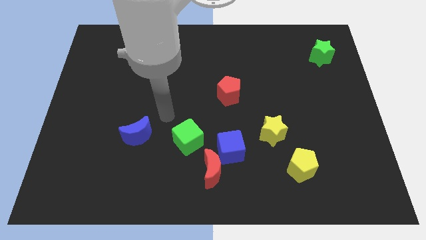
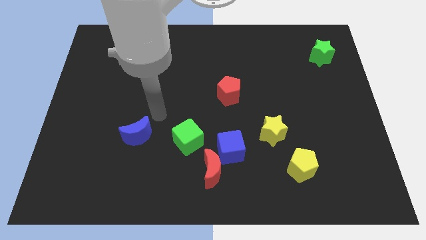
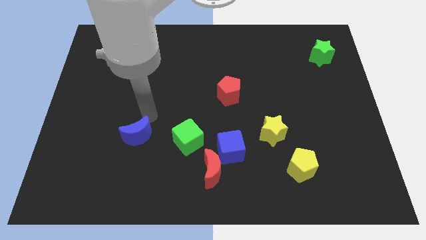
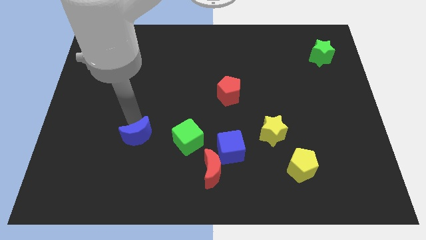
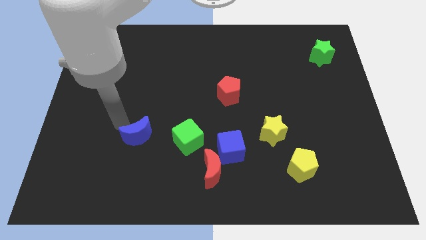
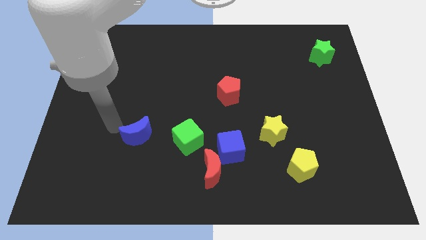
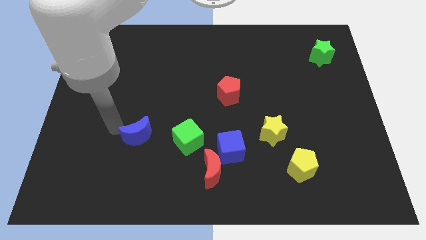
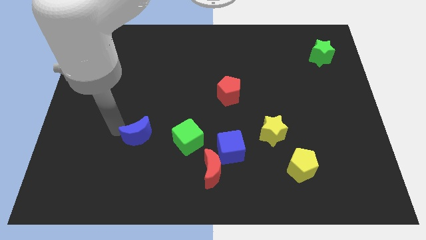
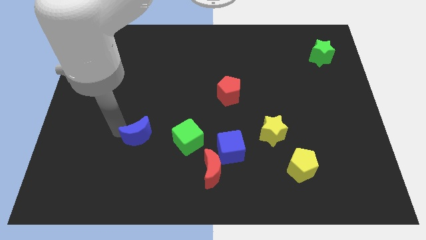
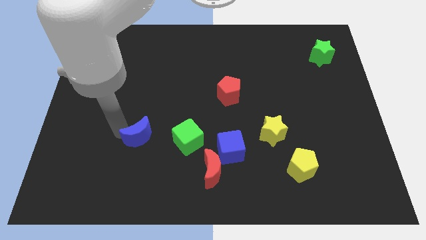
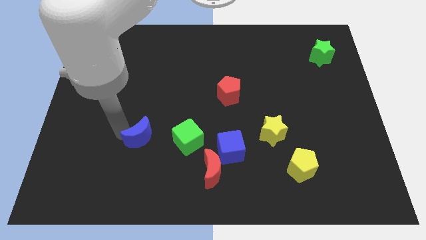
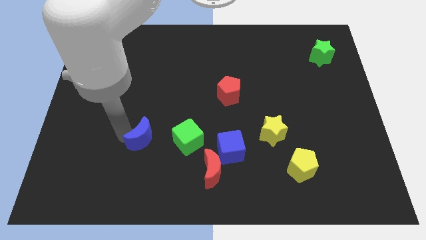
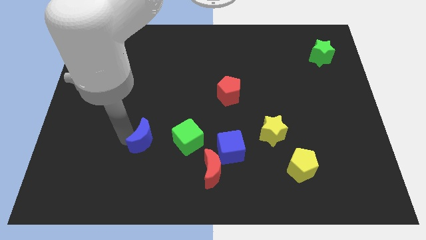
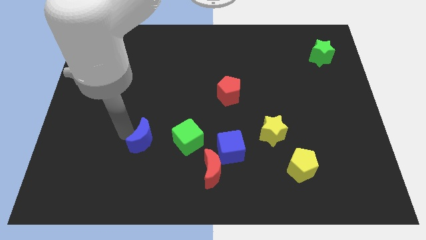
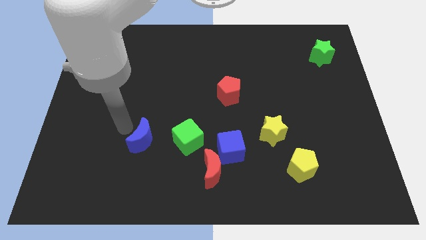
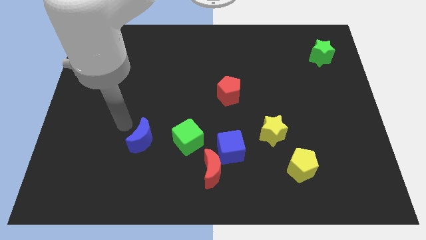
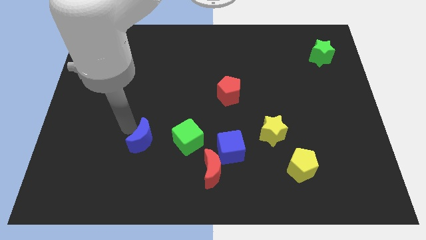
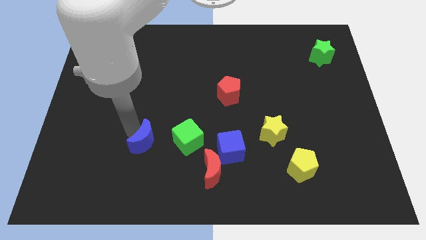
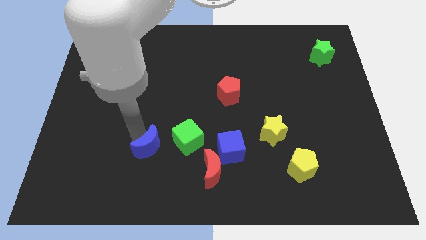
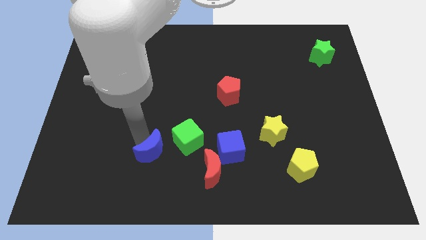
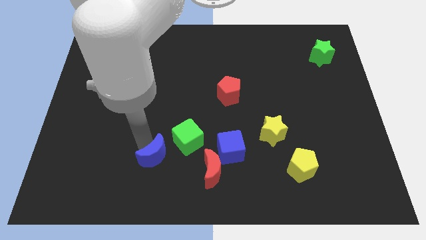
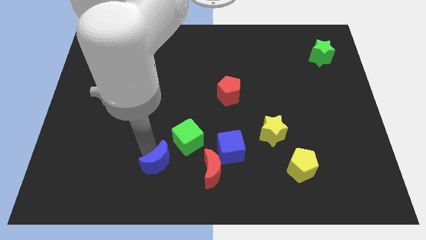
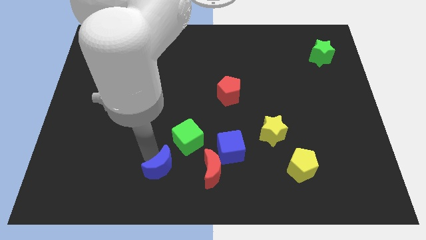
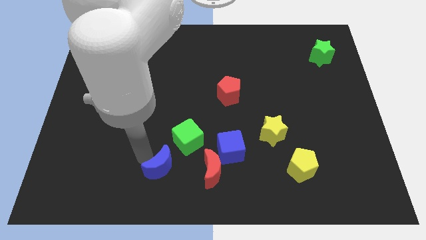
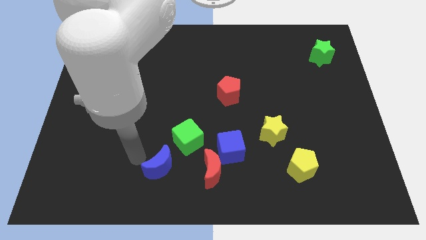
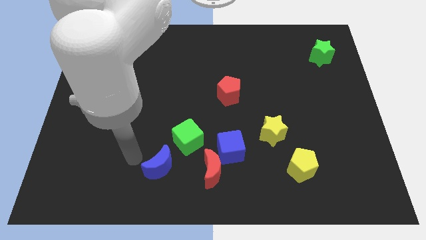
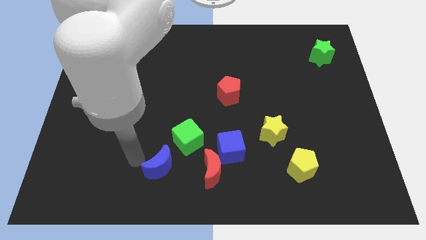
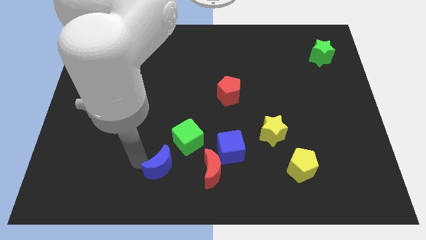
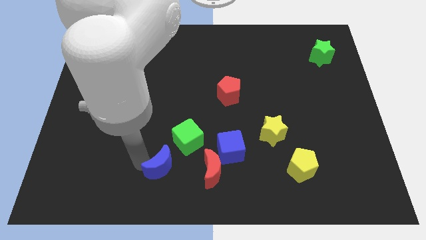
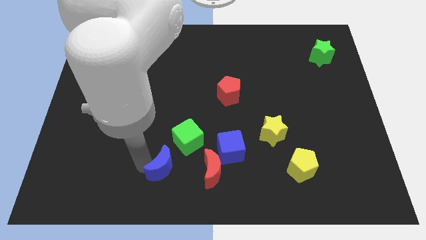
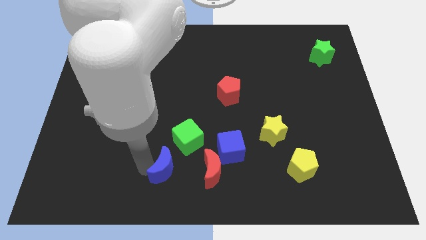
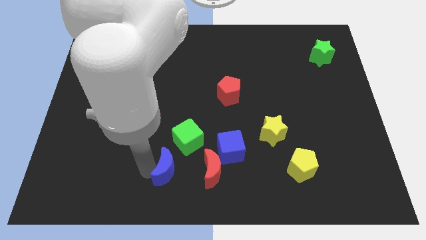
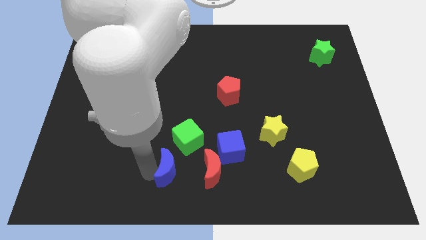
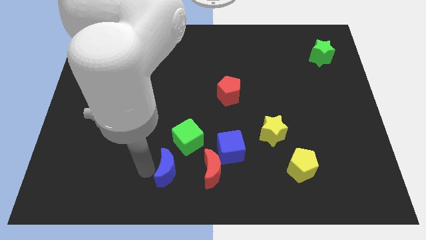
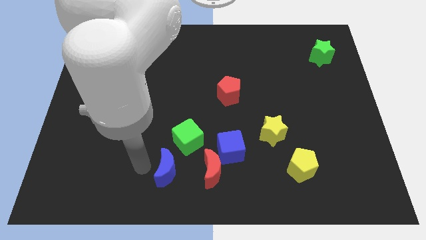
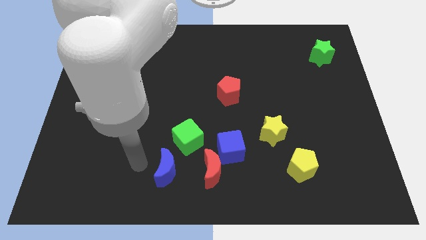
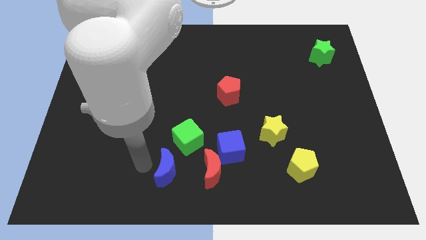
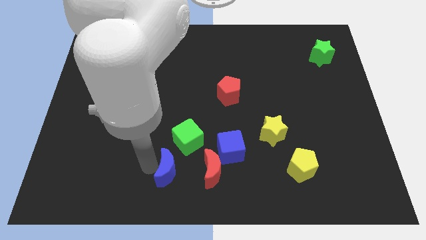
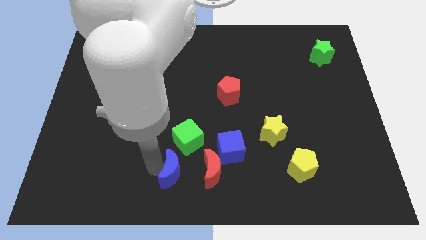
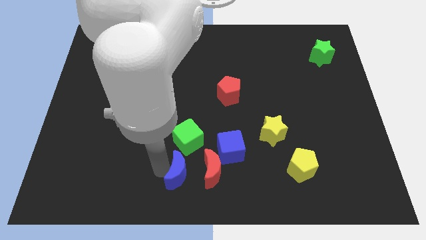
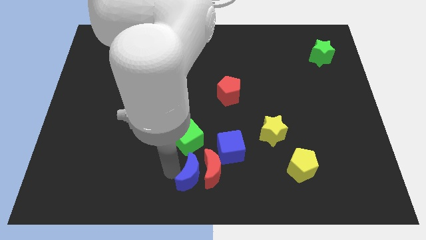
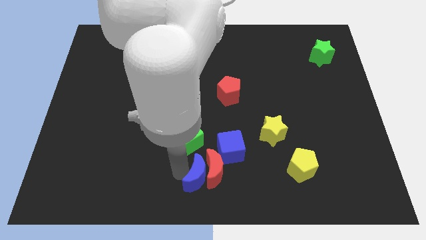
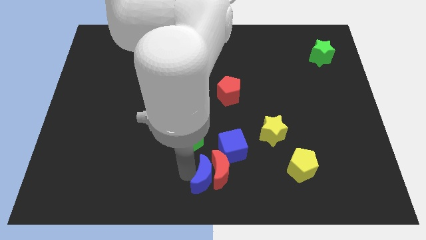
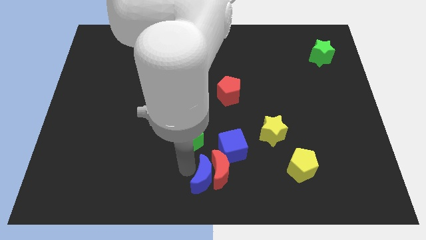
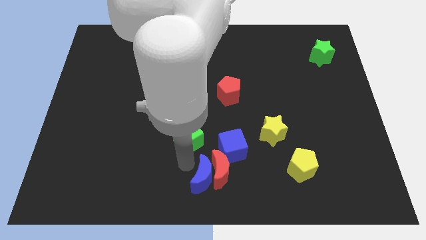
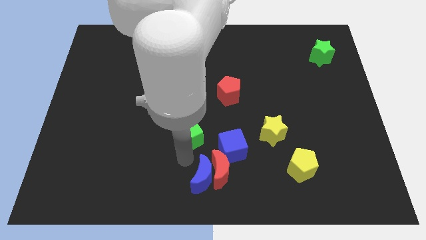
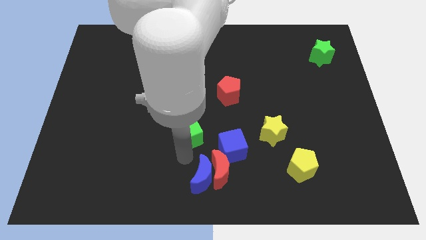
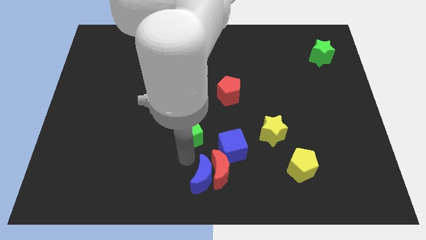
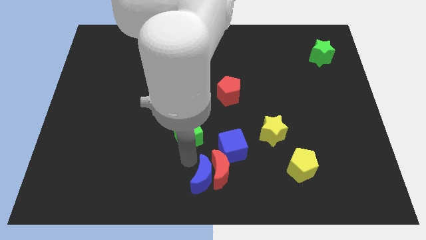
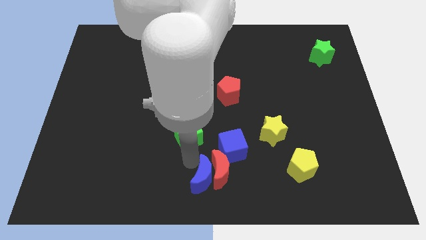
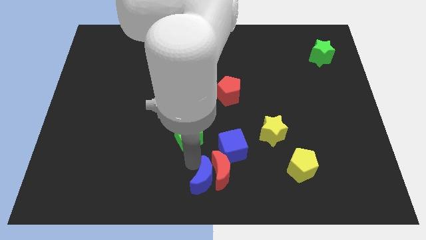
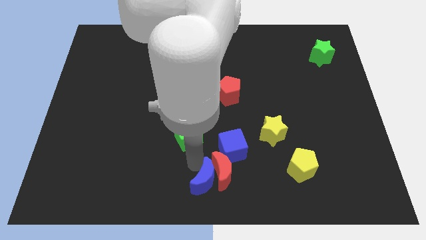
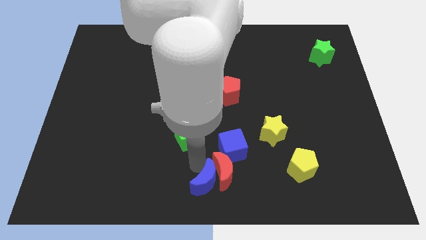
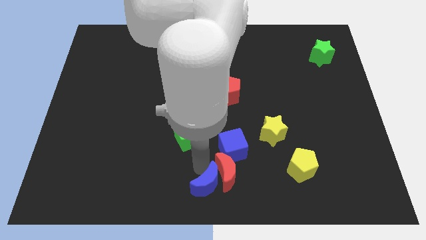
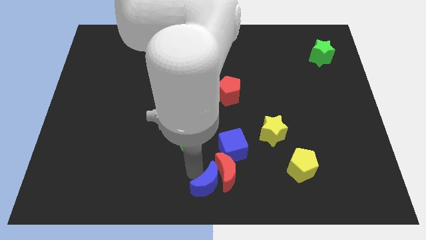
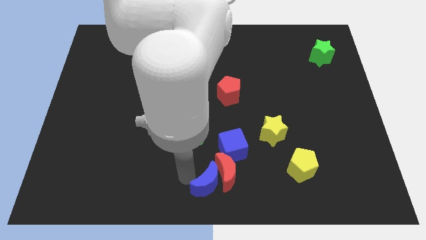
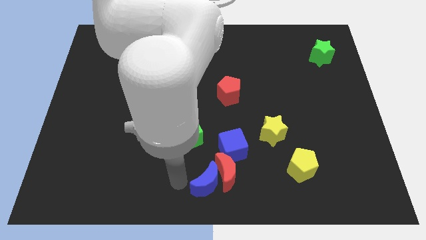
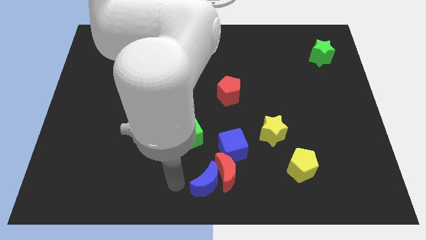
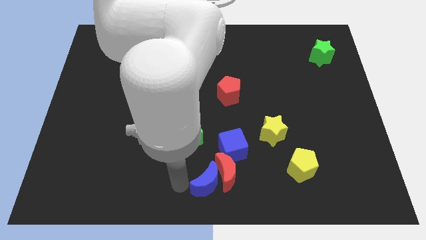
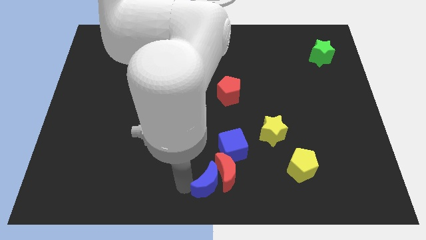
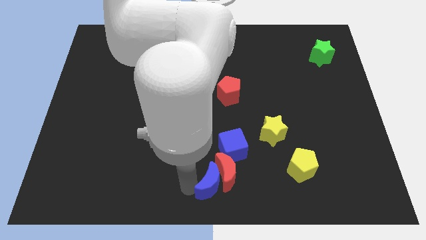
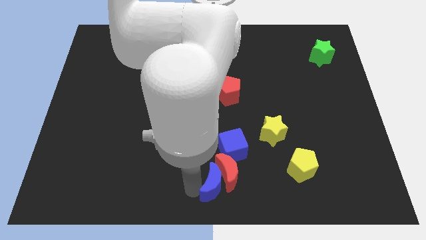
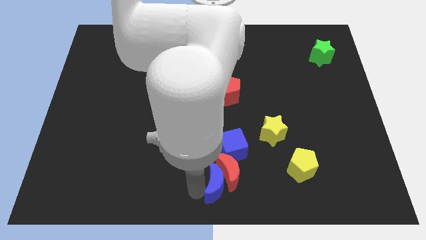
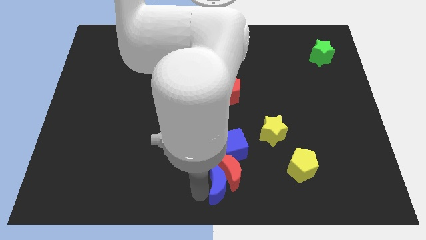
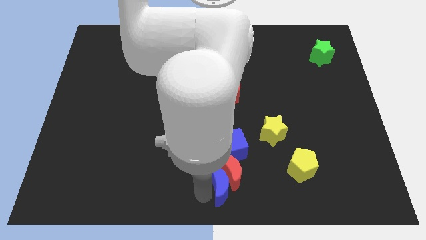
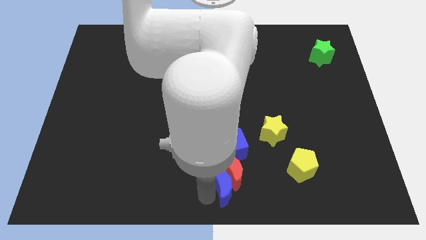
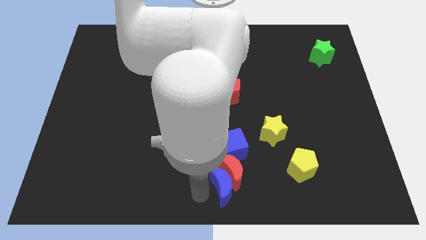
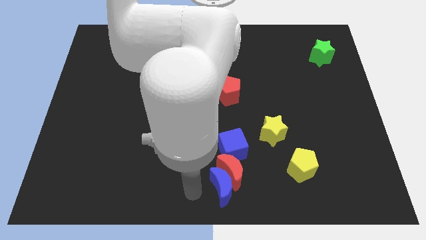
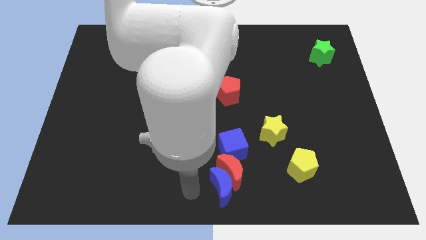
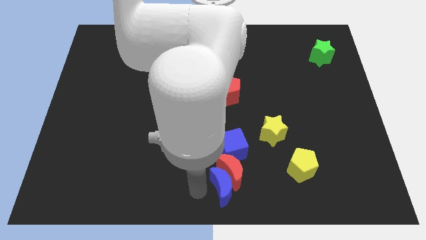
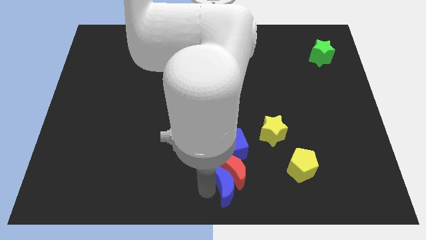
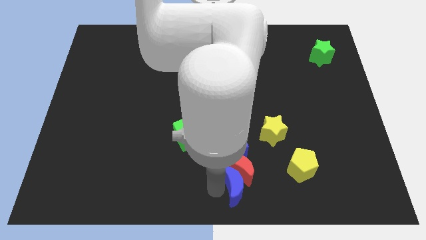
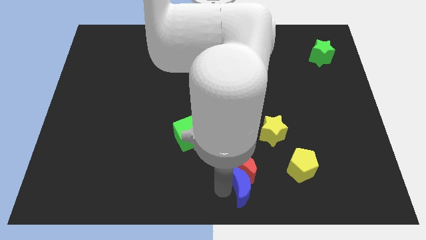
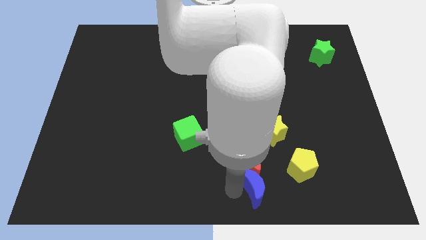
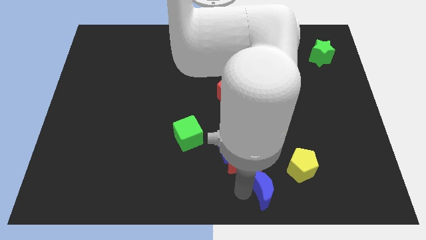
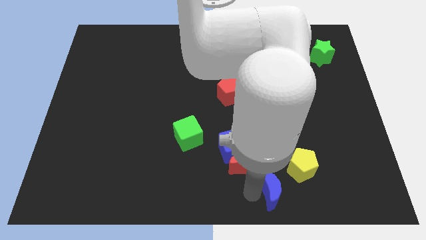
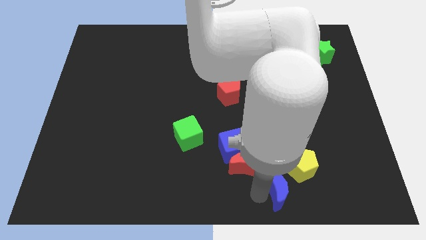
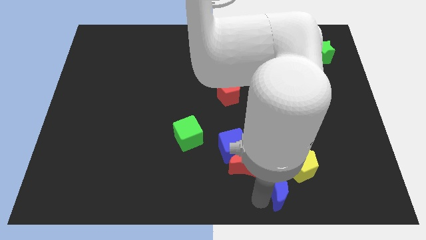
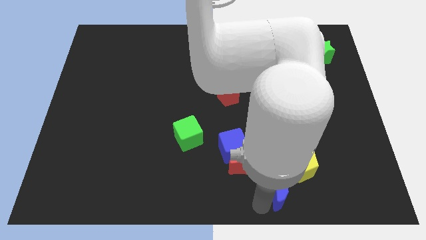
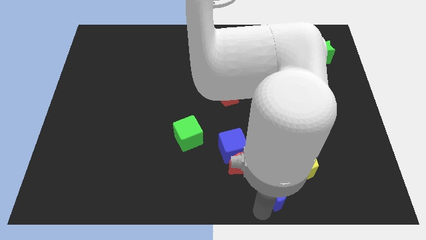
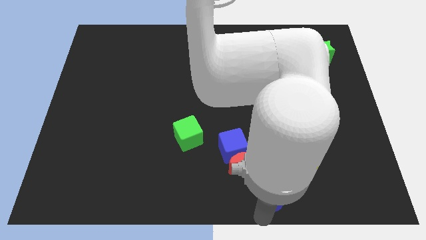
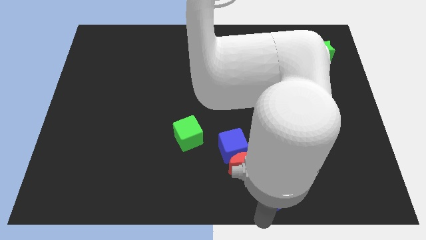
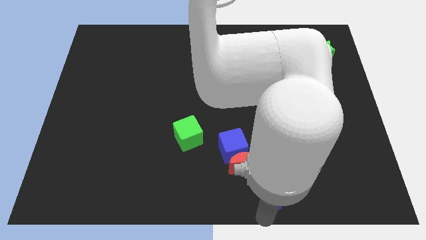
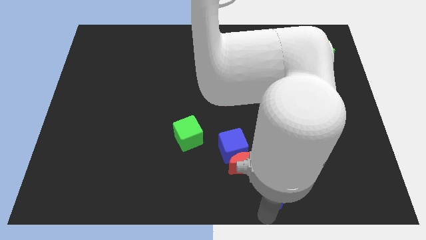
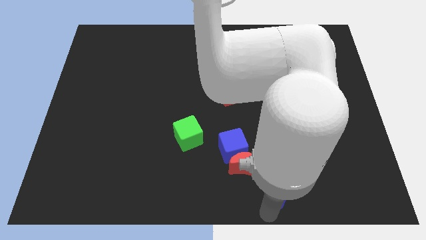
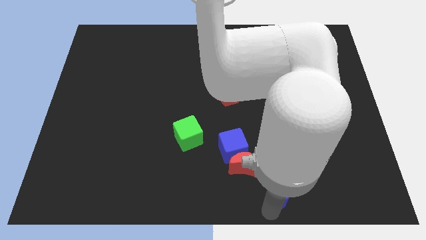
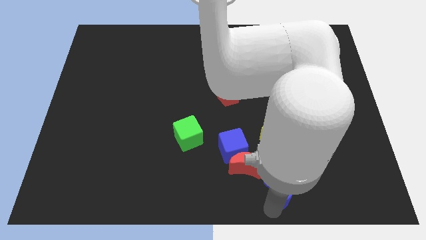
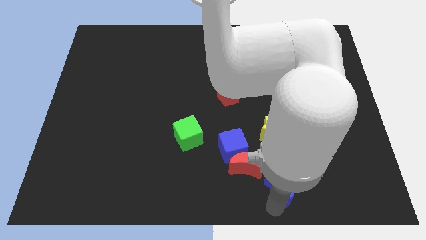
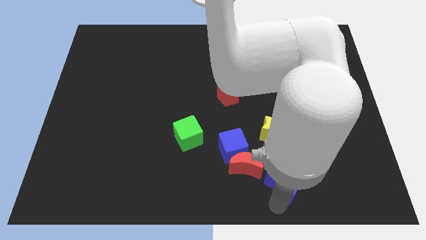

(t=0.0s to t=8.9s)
move the blue moon towards the yellow pentagon
